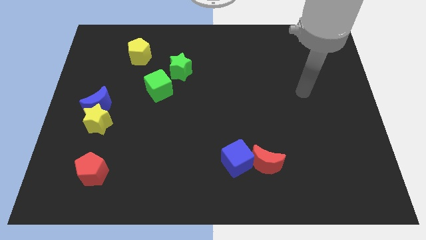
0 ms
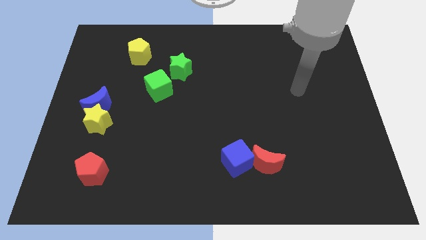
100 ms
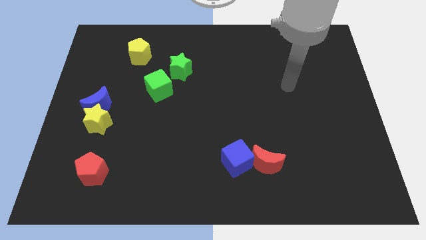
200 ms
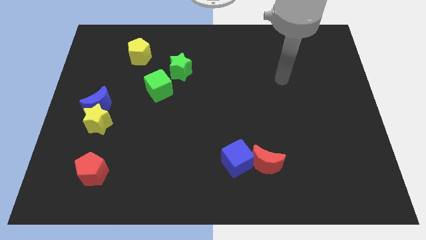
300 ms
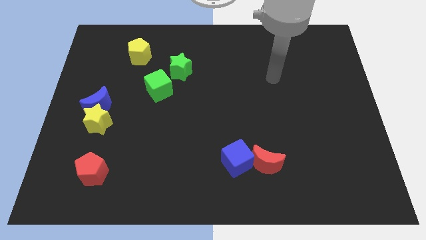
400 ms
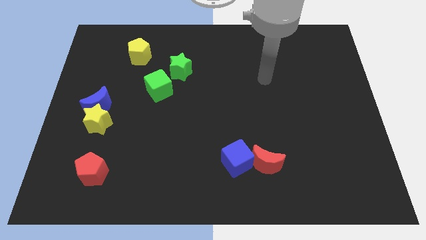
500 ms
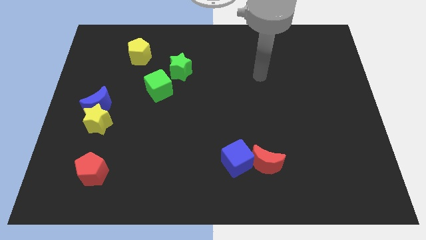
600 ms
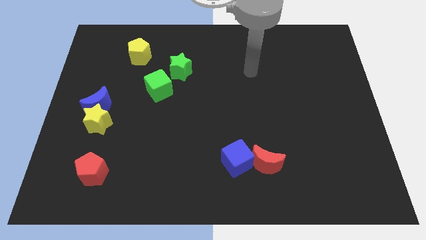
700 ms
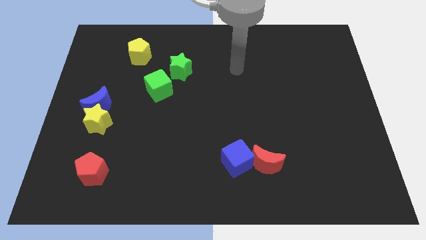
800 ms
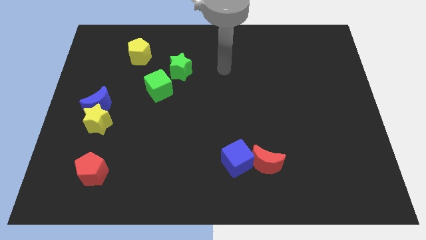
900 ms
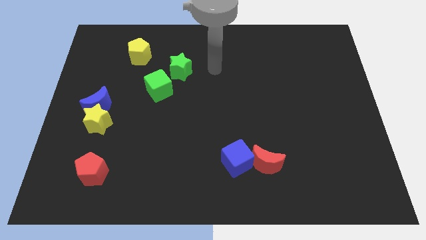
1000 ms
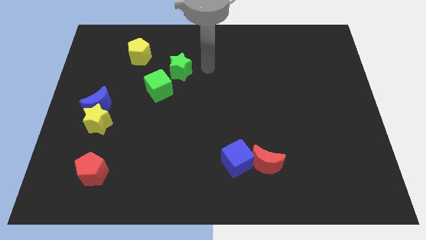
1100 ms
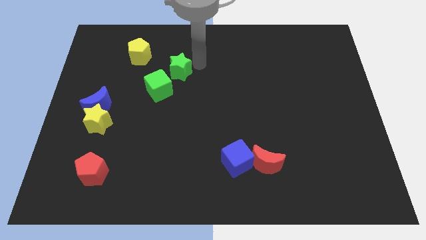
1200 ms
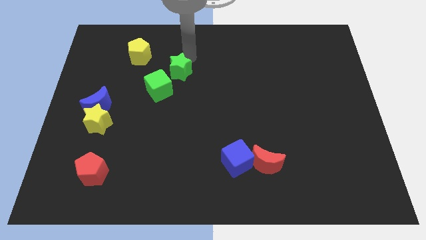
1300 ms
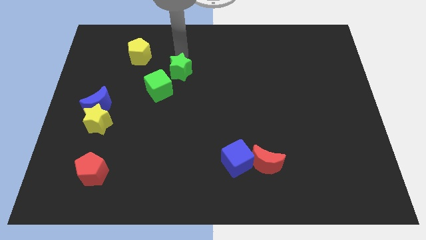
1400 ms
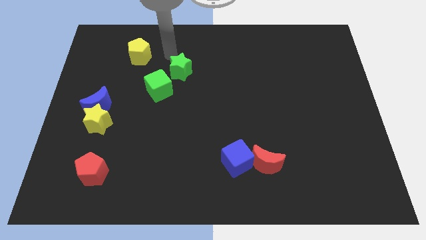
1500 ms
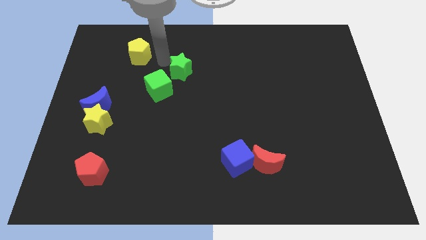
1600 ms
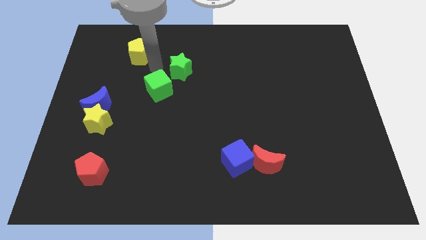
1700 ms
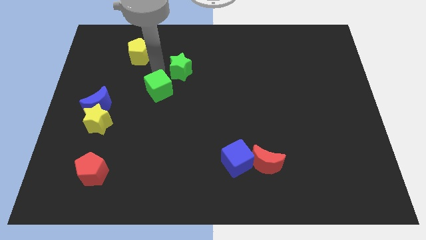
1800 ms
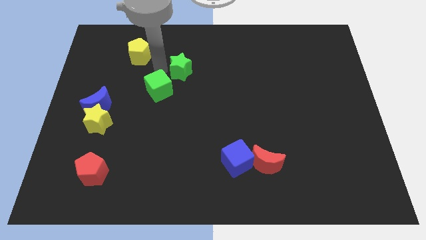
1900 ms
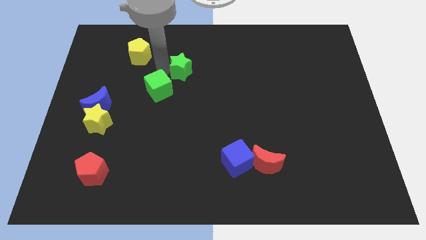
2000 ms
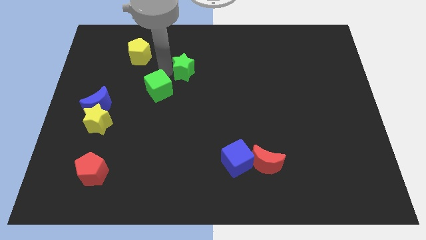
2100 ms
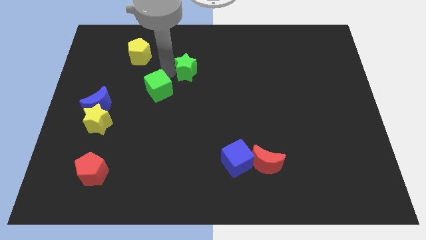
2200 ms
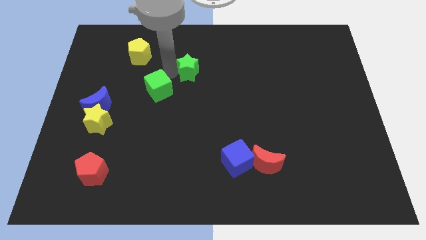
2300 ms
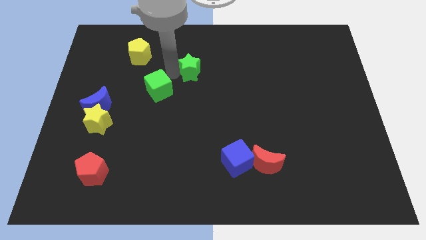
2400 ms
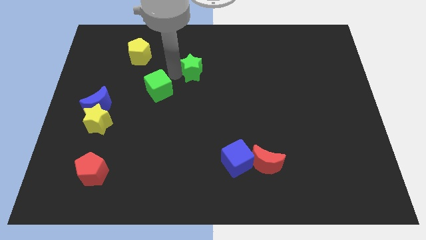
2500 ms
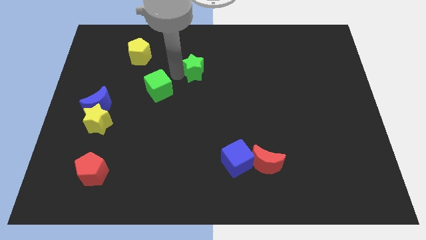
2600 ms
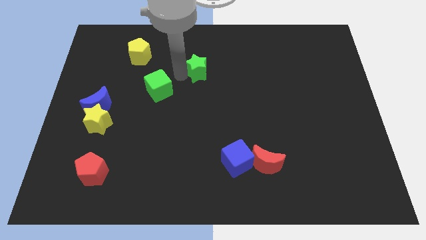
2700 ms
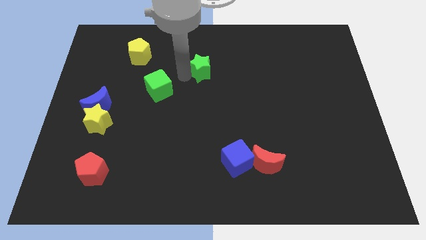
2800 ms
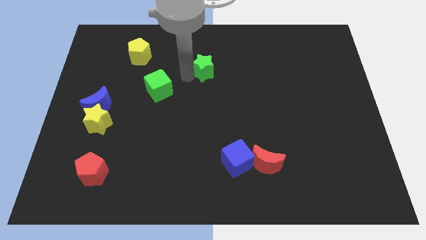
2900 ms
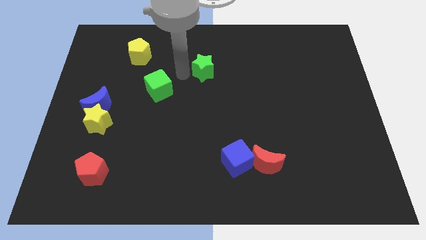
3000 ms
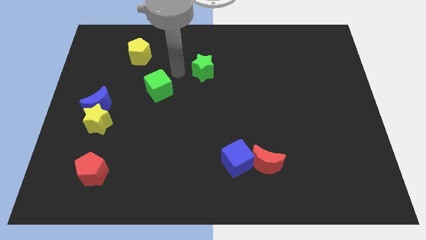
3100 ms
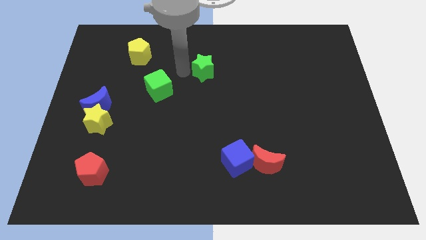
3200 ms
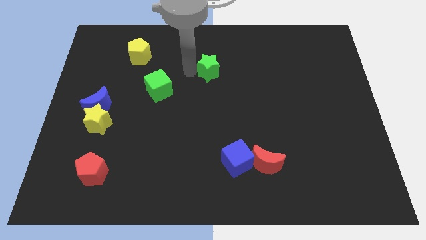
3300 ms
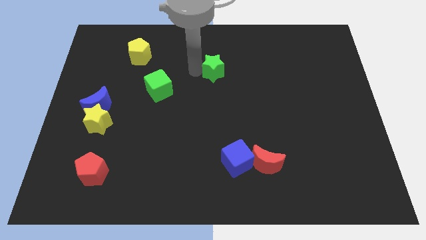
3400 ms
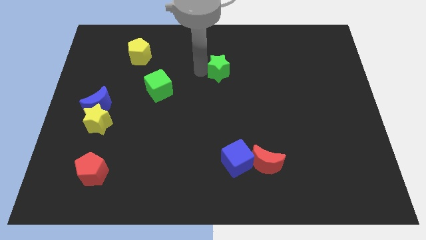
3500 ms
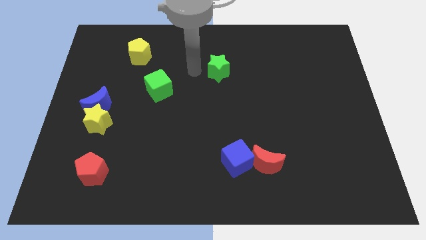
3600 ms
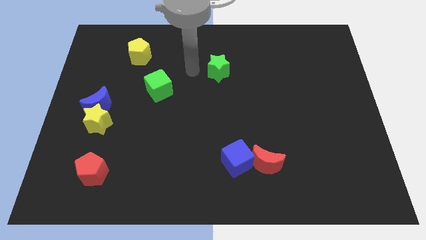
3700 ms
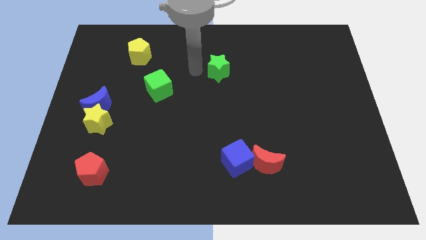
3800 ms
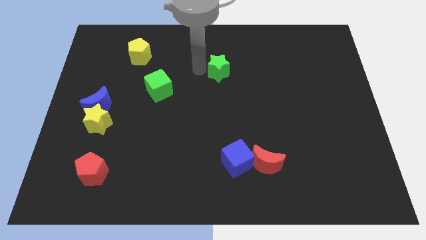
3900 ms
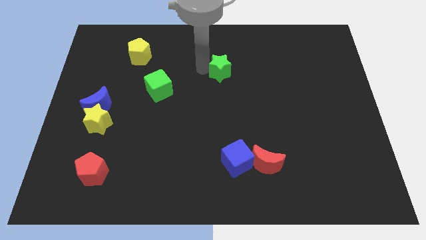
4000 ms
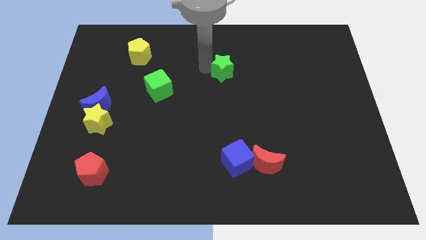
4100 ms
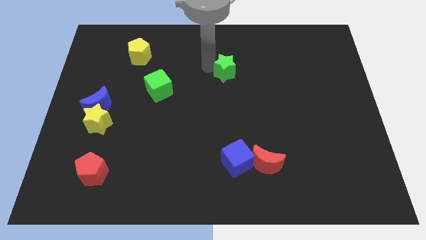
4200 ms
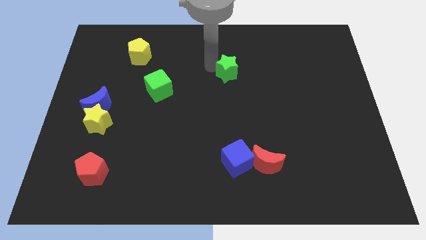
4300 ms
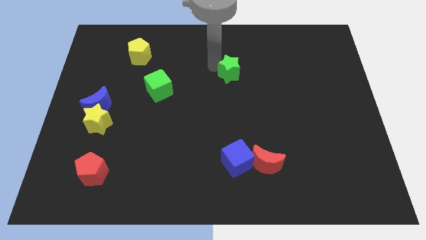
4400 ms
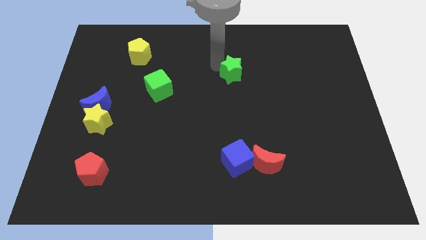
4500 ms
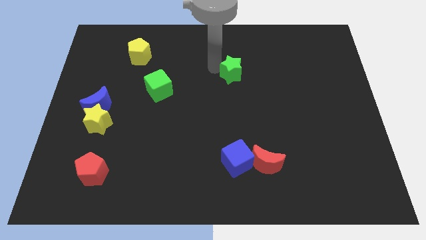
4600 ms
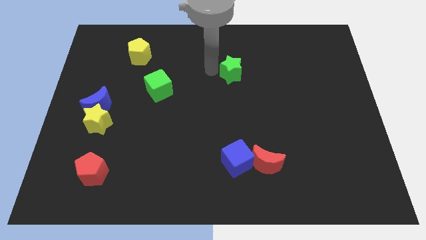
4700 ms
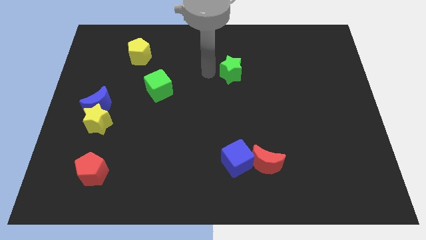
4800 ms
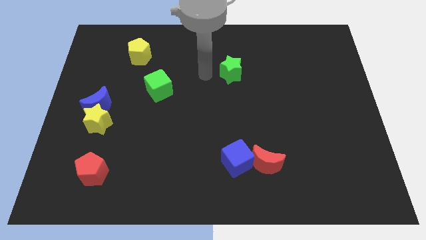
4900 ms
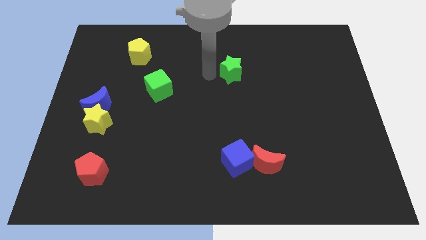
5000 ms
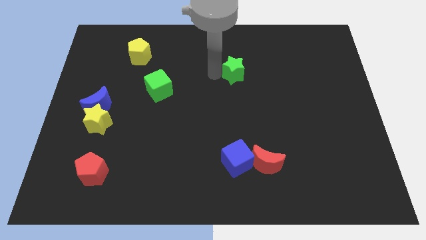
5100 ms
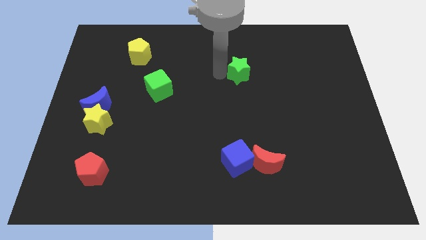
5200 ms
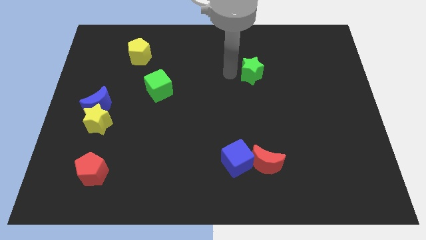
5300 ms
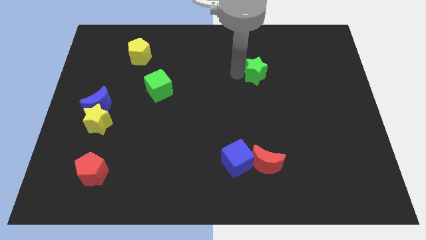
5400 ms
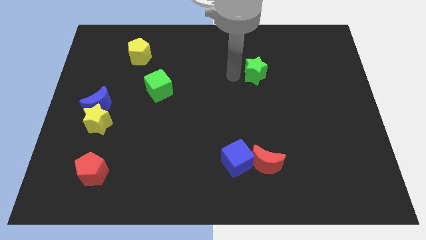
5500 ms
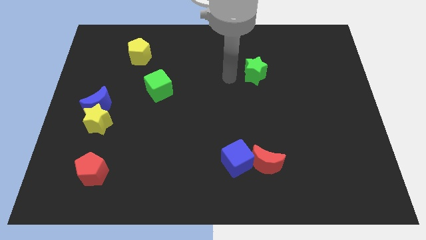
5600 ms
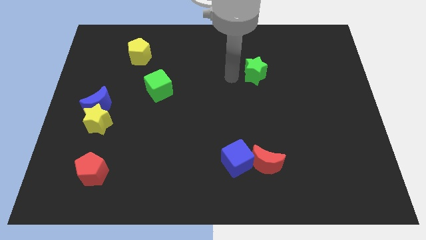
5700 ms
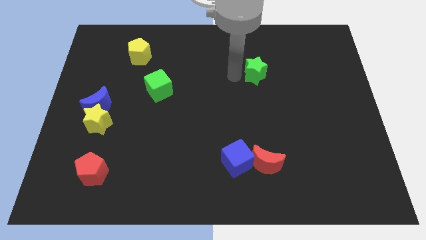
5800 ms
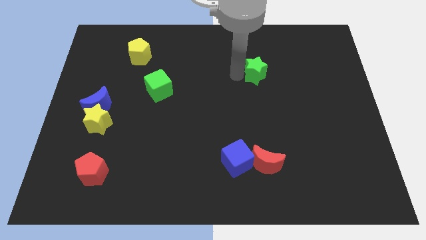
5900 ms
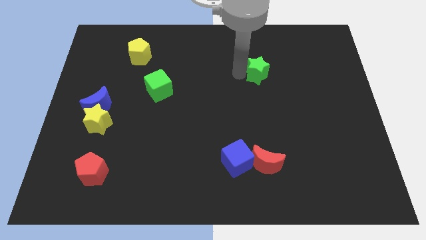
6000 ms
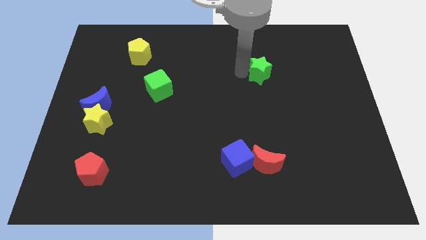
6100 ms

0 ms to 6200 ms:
push the green star to the right

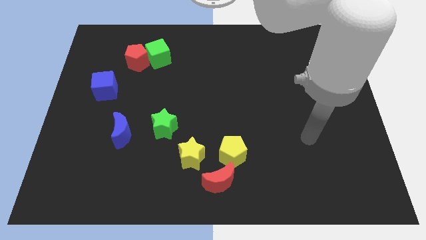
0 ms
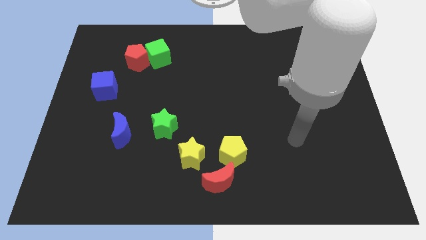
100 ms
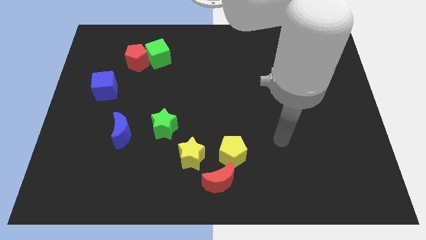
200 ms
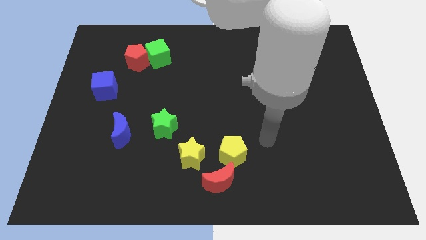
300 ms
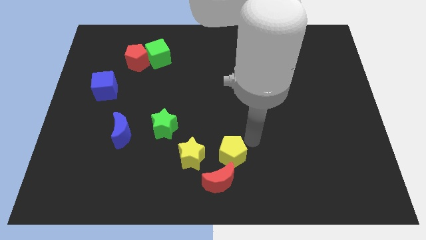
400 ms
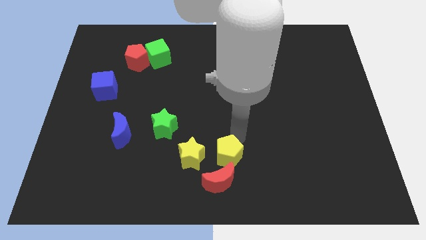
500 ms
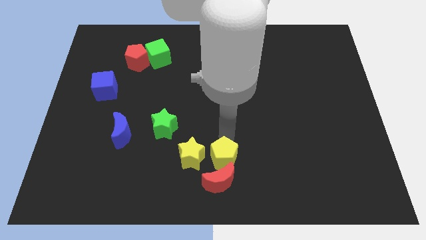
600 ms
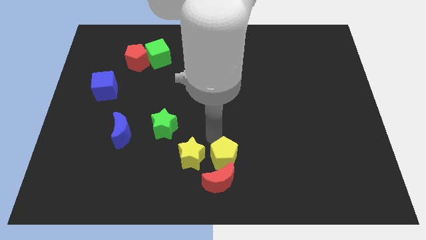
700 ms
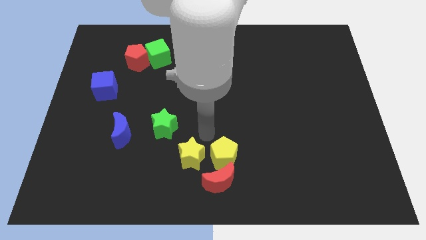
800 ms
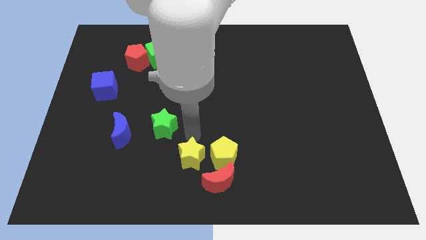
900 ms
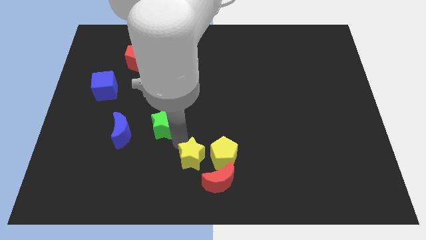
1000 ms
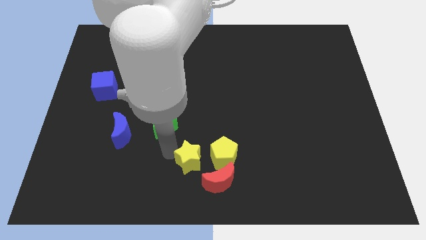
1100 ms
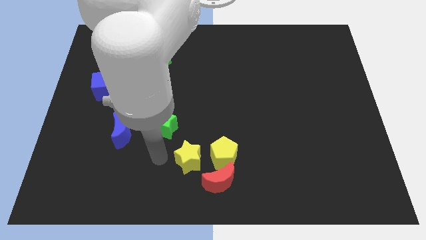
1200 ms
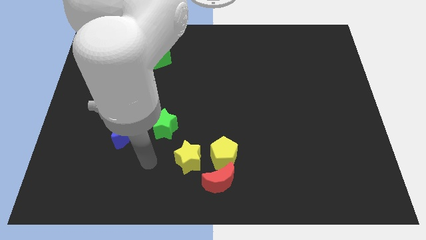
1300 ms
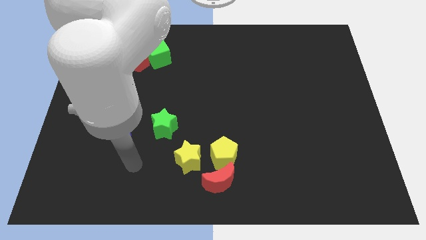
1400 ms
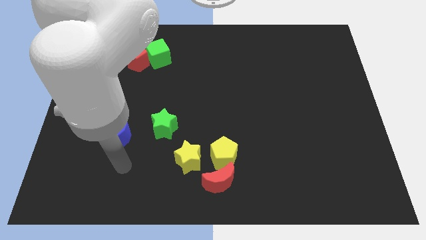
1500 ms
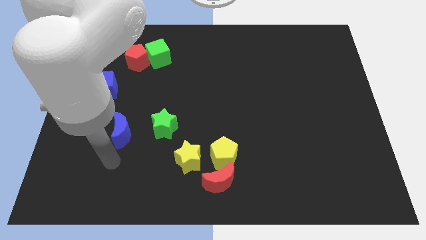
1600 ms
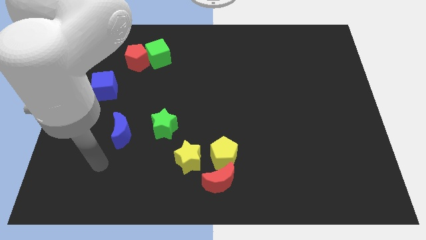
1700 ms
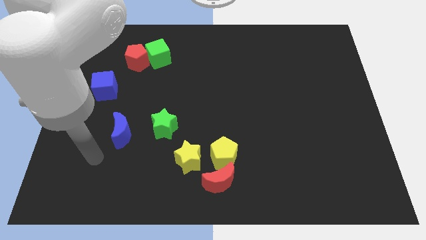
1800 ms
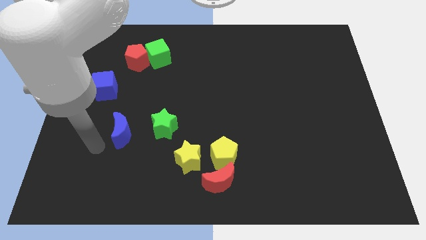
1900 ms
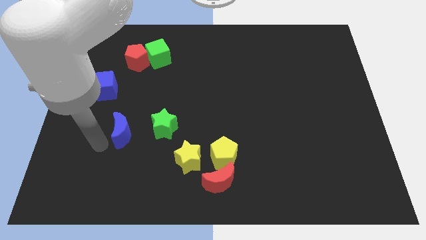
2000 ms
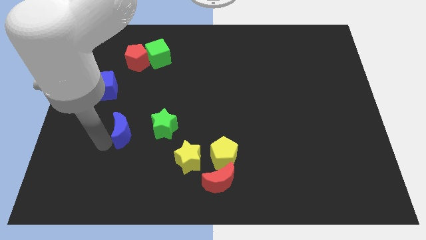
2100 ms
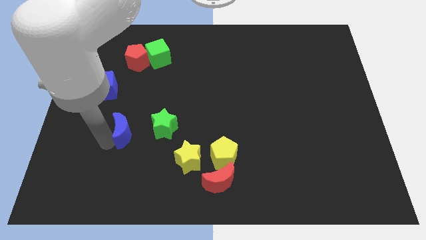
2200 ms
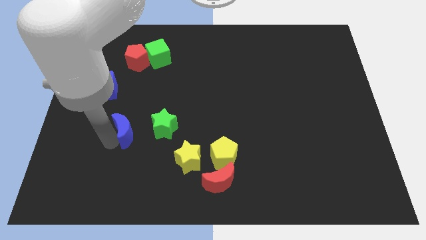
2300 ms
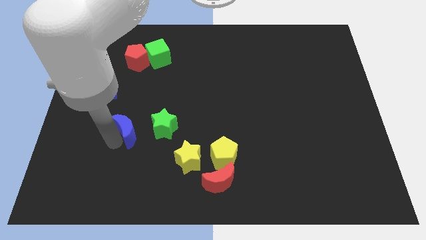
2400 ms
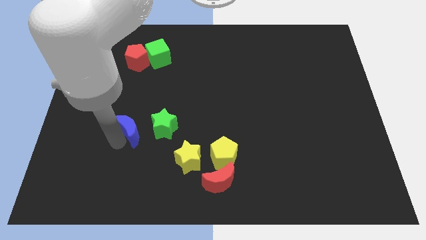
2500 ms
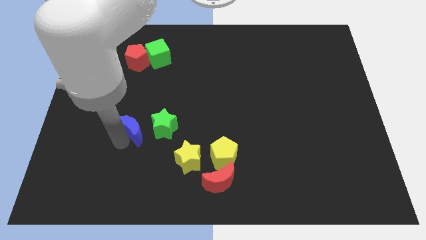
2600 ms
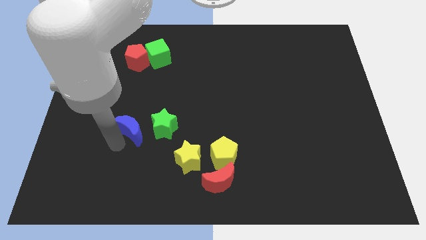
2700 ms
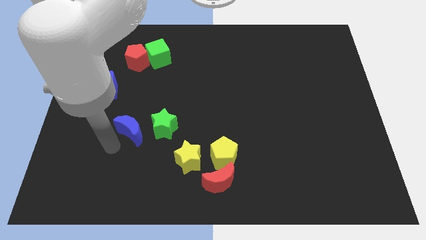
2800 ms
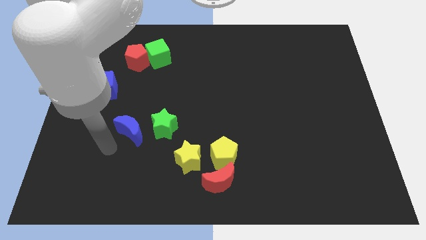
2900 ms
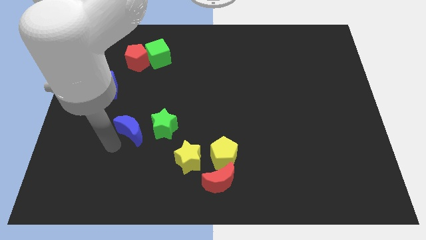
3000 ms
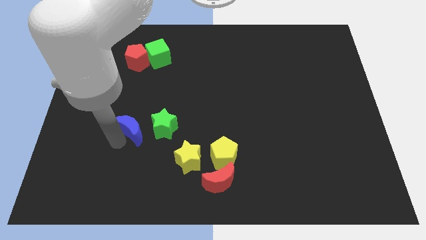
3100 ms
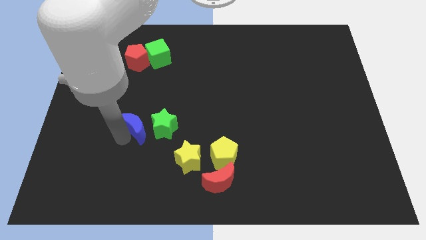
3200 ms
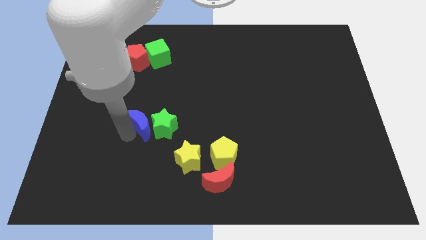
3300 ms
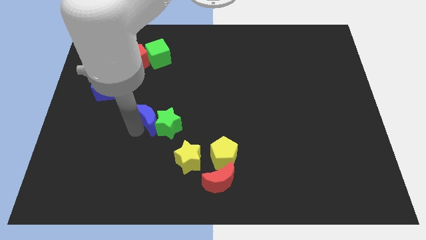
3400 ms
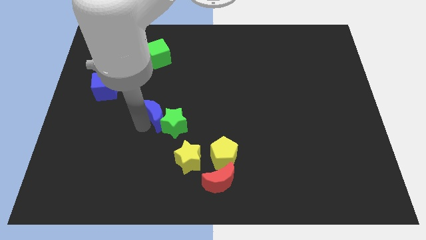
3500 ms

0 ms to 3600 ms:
push the blue moon upwards and then to the right a little
